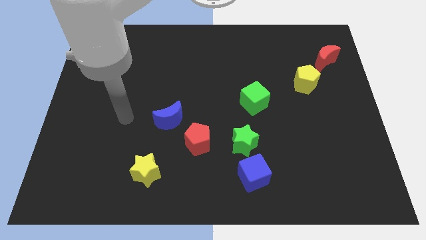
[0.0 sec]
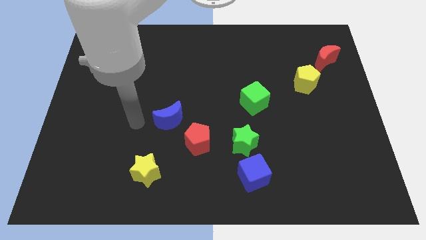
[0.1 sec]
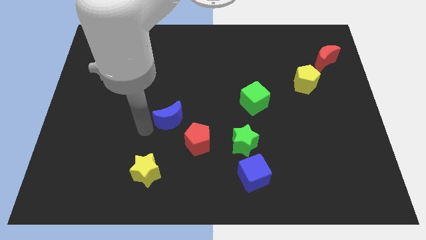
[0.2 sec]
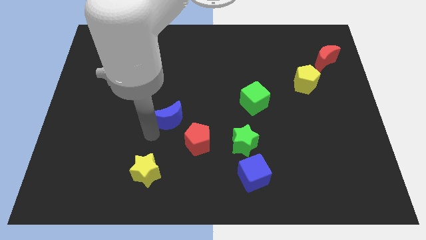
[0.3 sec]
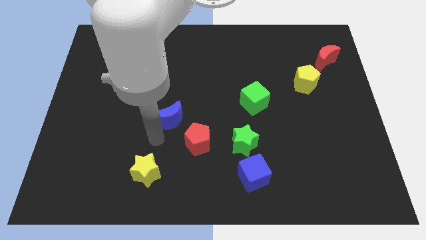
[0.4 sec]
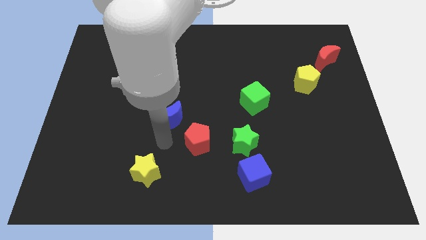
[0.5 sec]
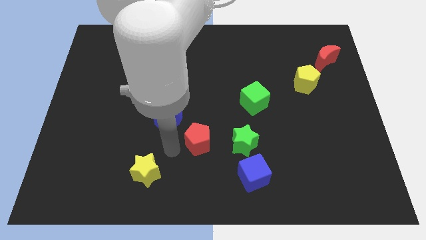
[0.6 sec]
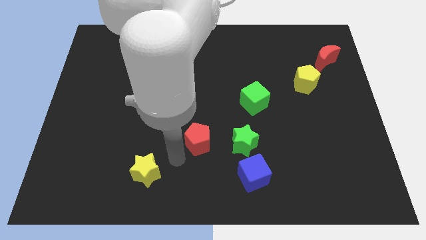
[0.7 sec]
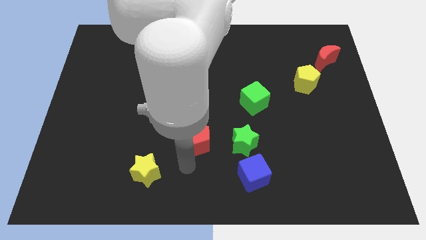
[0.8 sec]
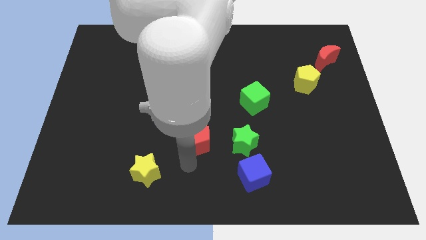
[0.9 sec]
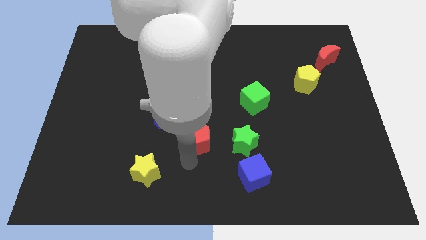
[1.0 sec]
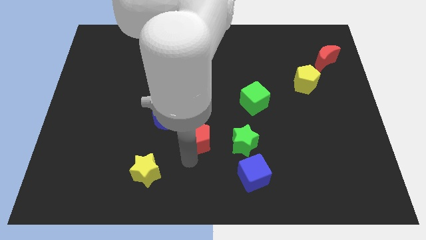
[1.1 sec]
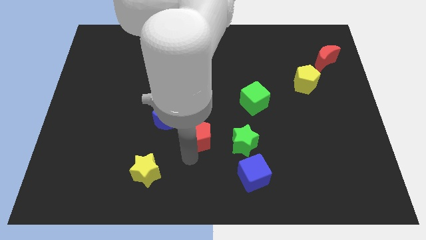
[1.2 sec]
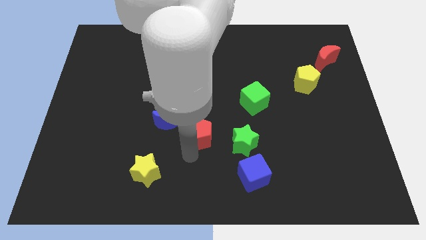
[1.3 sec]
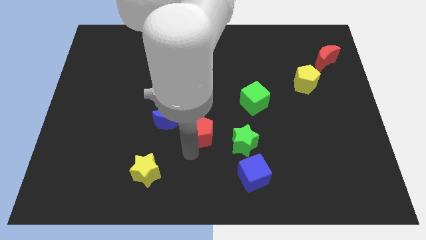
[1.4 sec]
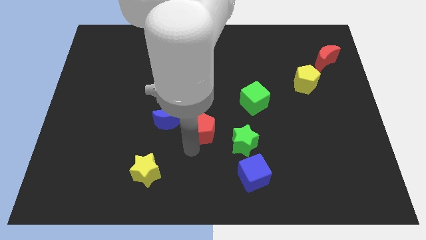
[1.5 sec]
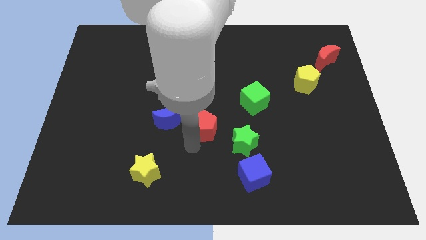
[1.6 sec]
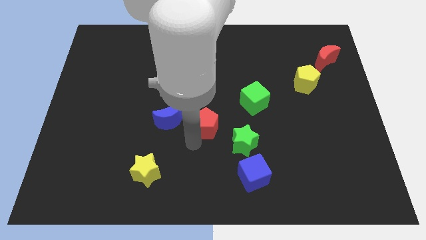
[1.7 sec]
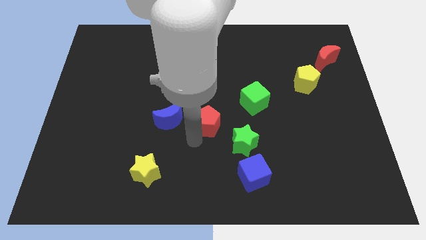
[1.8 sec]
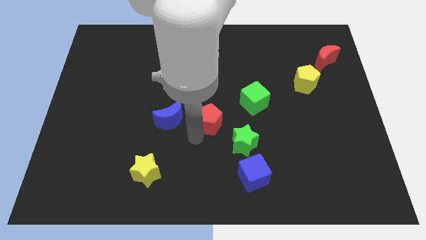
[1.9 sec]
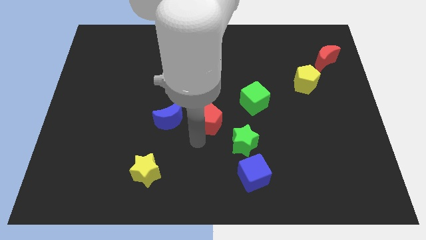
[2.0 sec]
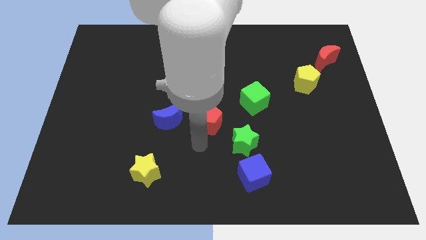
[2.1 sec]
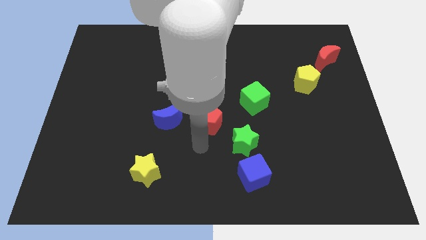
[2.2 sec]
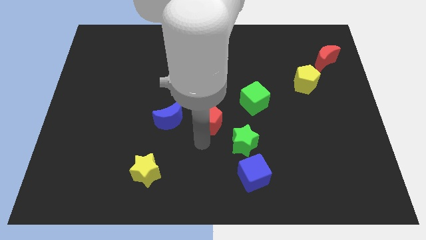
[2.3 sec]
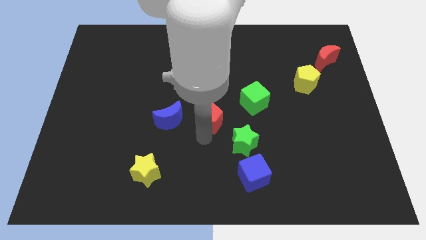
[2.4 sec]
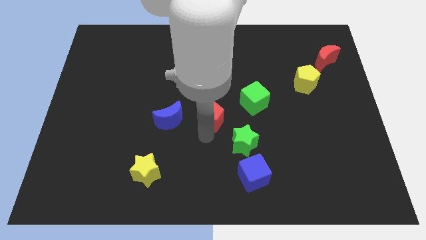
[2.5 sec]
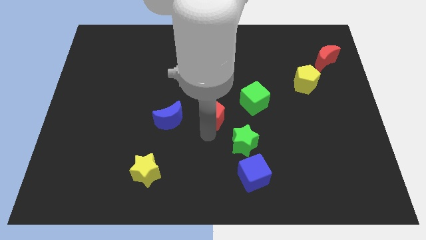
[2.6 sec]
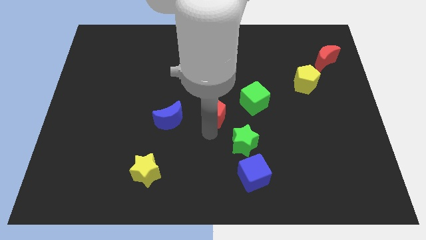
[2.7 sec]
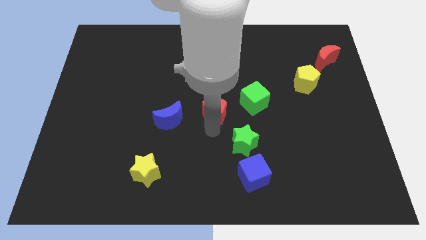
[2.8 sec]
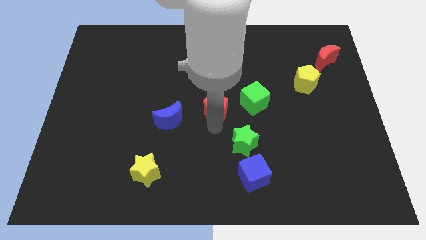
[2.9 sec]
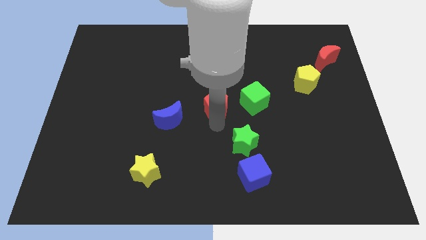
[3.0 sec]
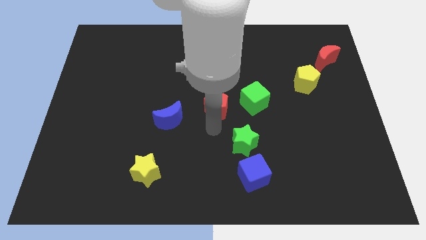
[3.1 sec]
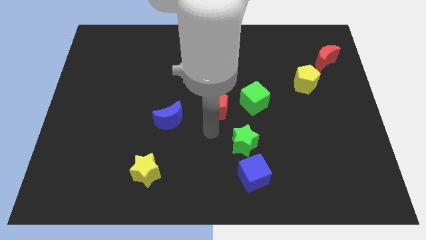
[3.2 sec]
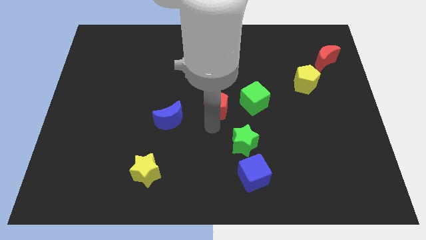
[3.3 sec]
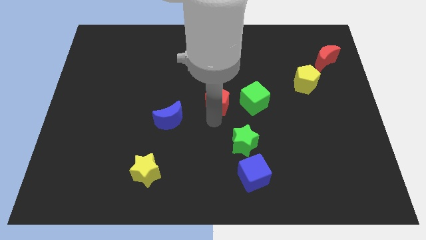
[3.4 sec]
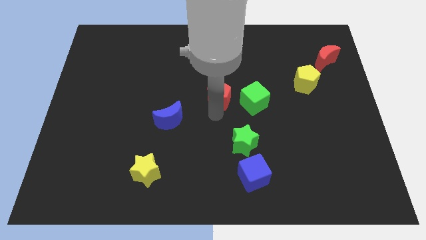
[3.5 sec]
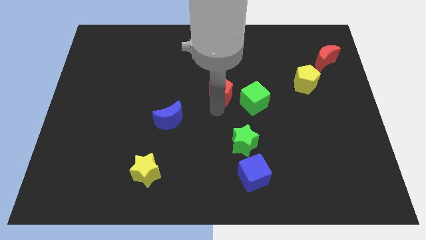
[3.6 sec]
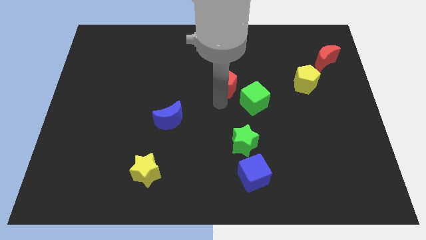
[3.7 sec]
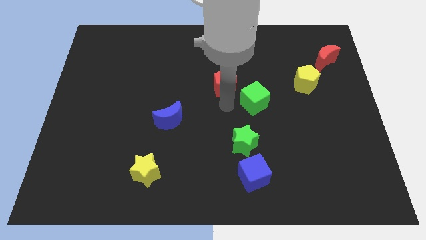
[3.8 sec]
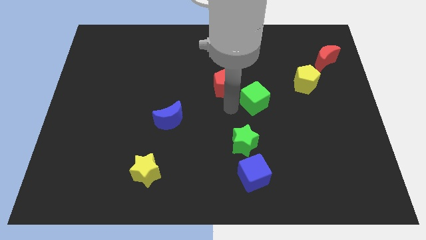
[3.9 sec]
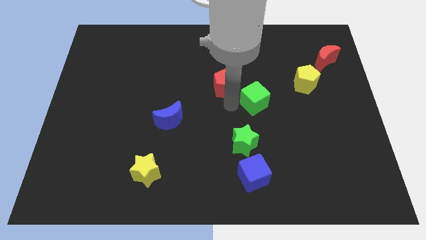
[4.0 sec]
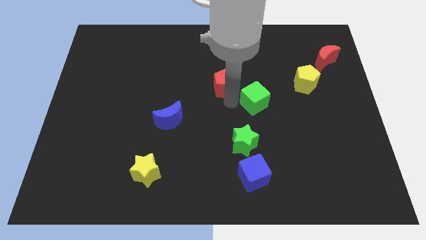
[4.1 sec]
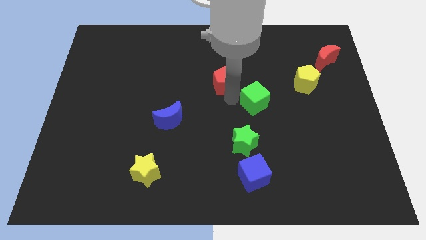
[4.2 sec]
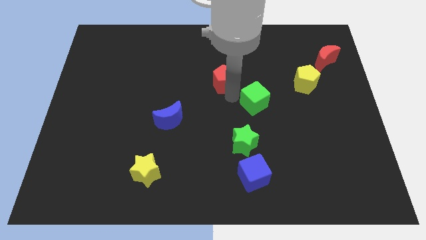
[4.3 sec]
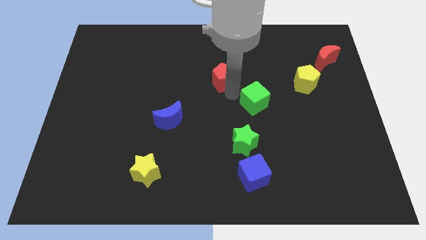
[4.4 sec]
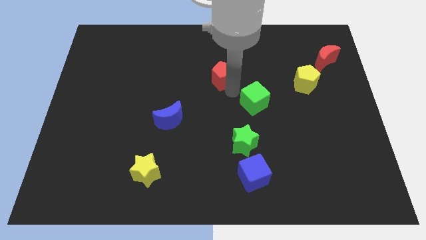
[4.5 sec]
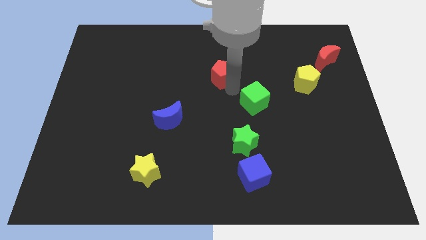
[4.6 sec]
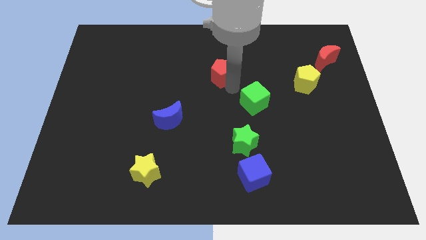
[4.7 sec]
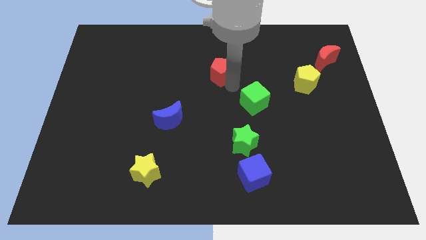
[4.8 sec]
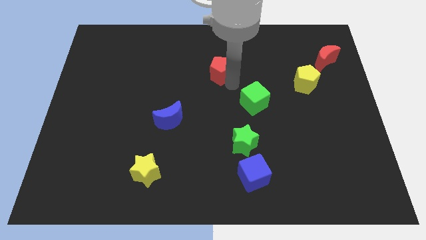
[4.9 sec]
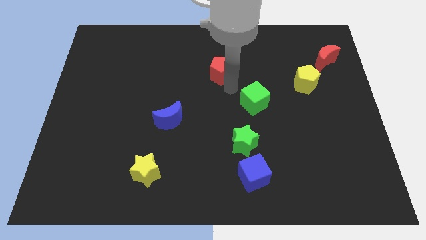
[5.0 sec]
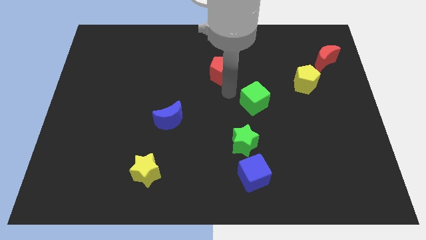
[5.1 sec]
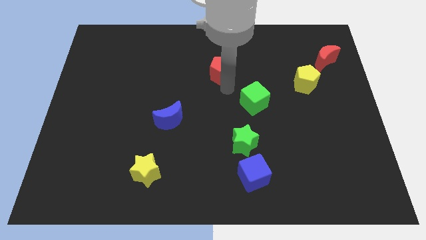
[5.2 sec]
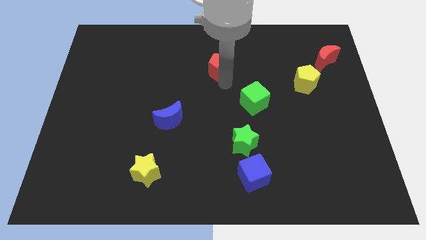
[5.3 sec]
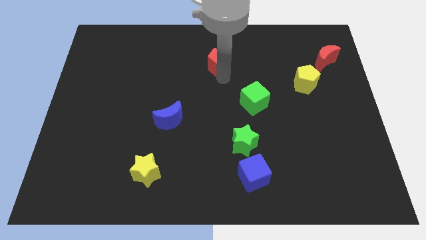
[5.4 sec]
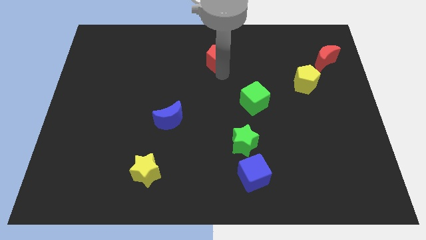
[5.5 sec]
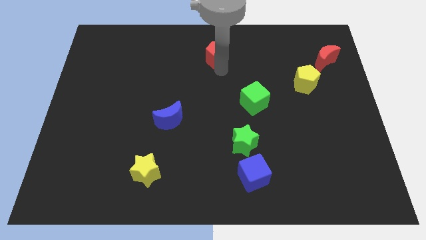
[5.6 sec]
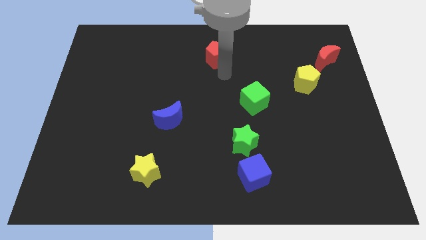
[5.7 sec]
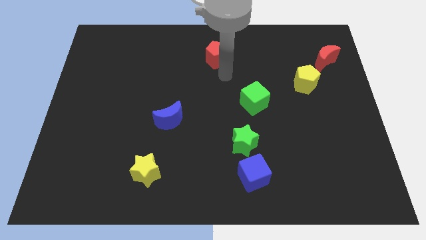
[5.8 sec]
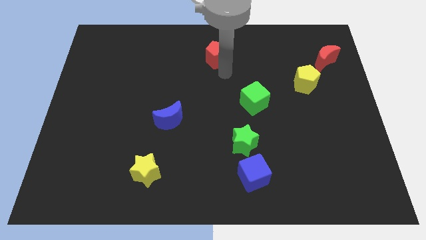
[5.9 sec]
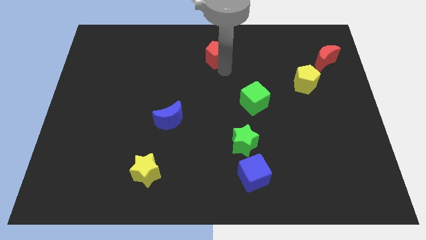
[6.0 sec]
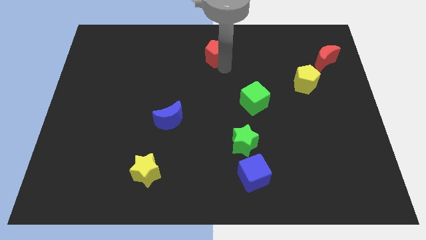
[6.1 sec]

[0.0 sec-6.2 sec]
move the red pentagon to the top

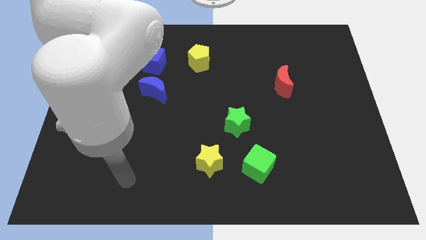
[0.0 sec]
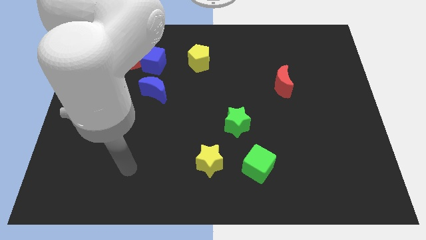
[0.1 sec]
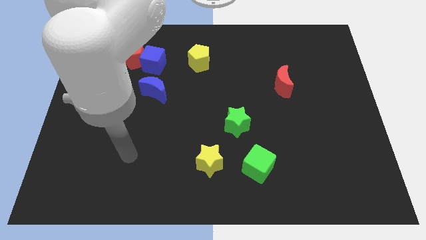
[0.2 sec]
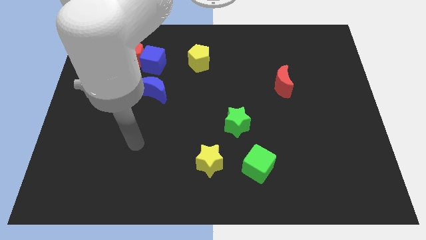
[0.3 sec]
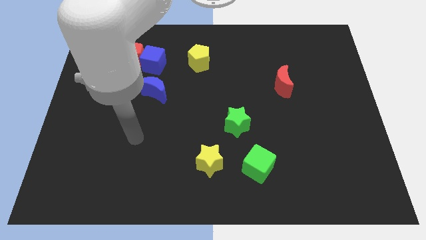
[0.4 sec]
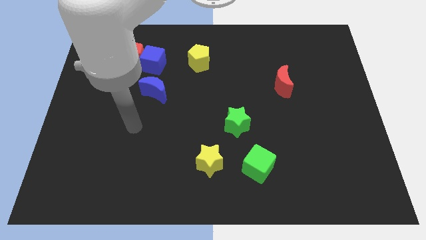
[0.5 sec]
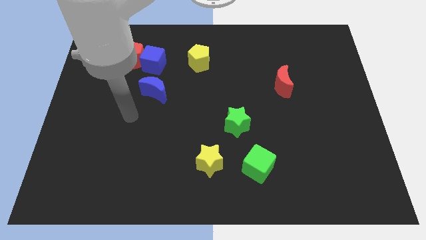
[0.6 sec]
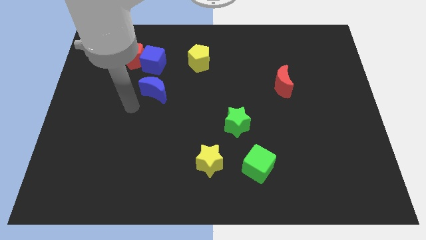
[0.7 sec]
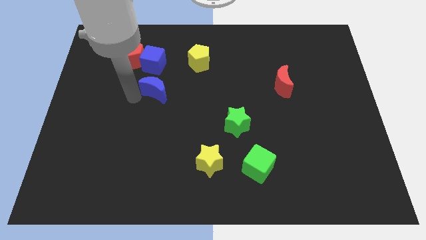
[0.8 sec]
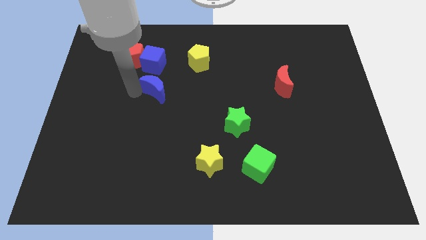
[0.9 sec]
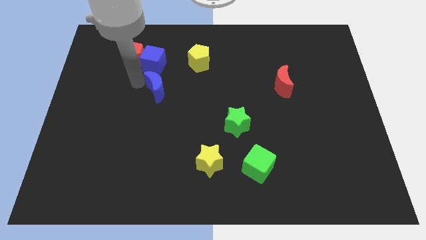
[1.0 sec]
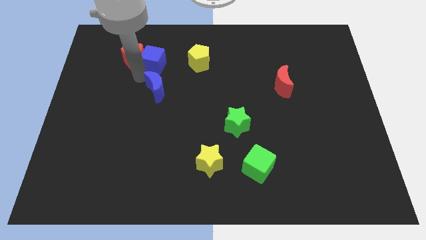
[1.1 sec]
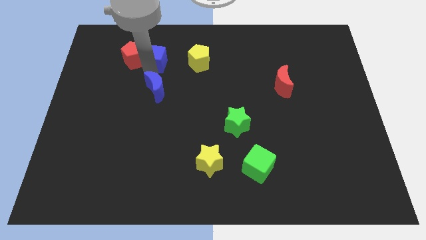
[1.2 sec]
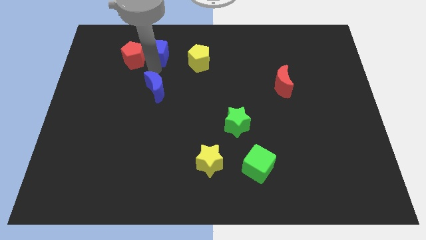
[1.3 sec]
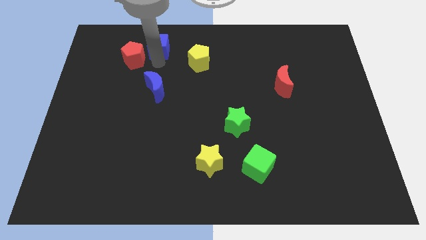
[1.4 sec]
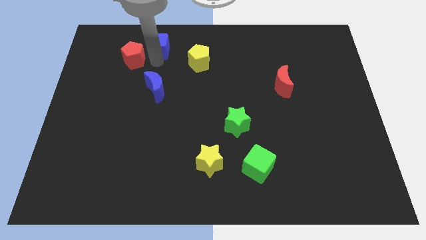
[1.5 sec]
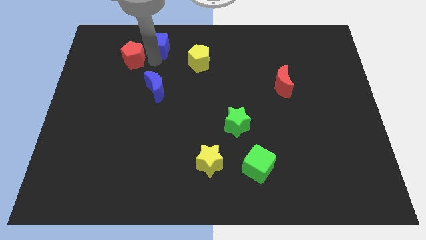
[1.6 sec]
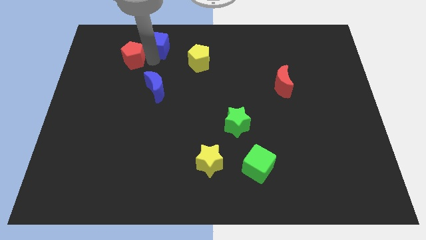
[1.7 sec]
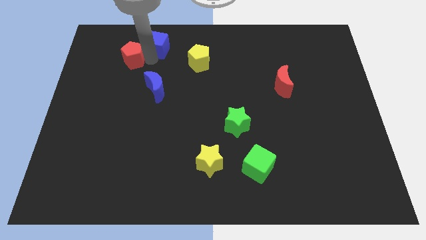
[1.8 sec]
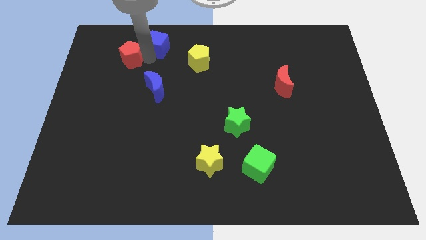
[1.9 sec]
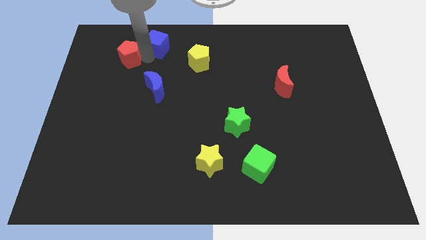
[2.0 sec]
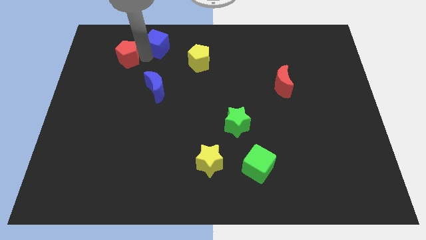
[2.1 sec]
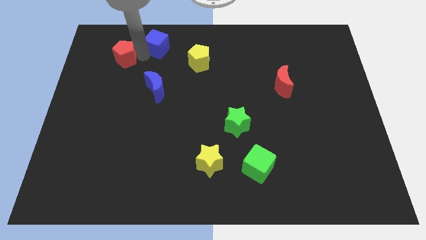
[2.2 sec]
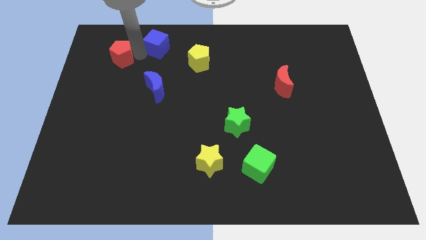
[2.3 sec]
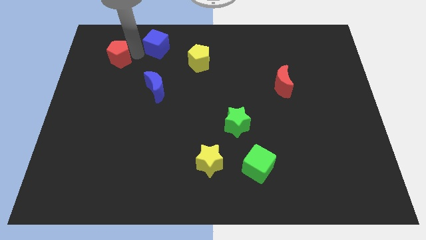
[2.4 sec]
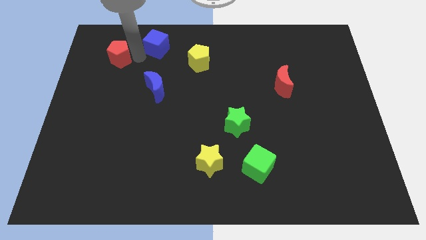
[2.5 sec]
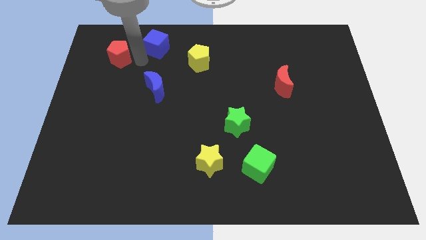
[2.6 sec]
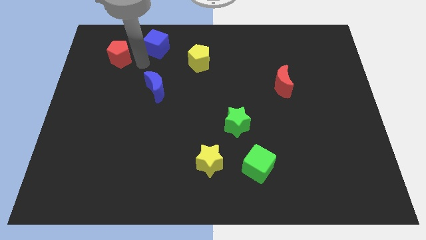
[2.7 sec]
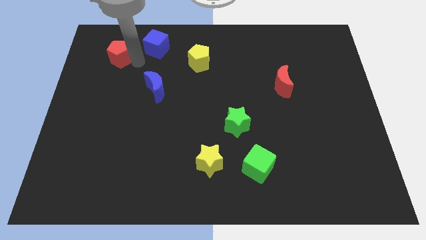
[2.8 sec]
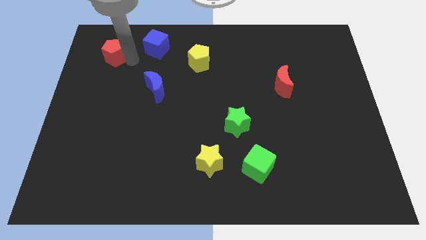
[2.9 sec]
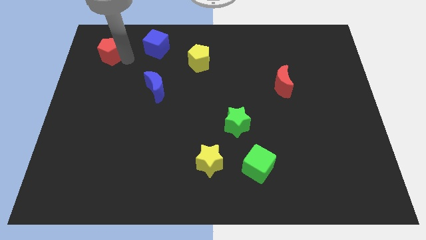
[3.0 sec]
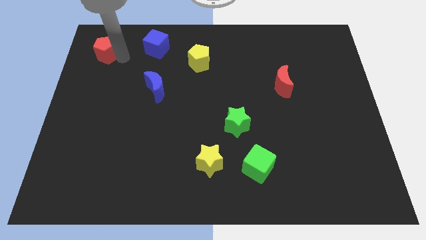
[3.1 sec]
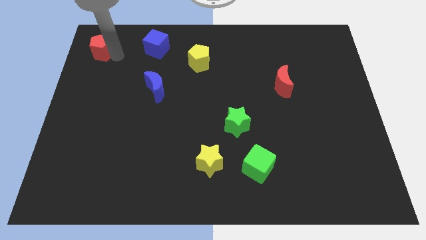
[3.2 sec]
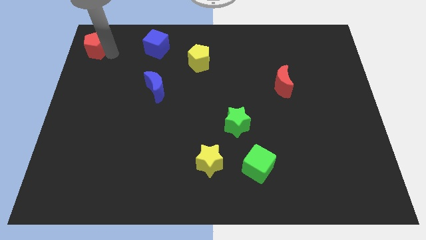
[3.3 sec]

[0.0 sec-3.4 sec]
push the red pentagon to the top left of the board
